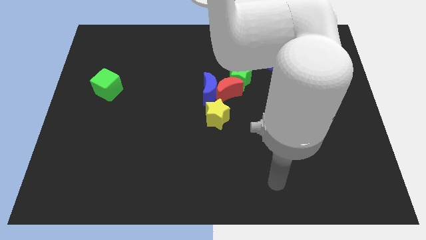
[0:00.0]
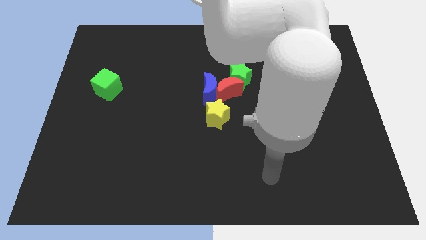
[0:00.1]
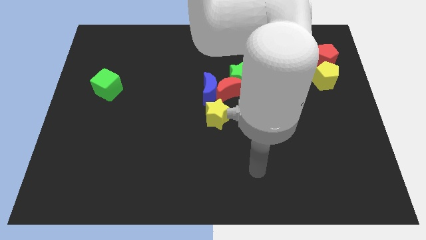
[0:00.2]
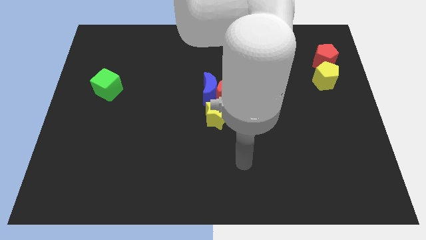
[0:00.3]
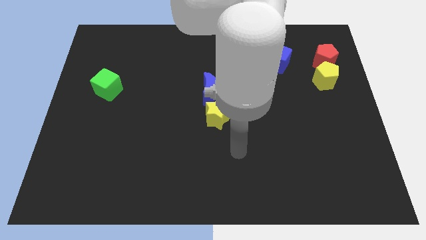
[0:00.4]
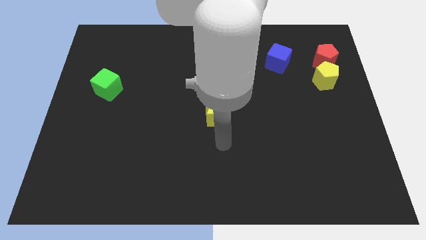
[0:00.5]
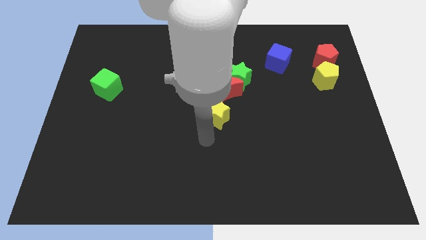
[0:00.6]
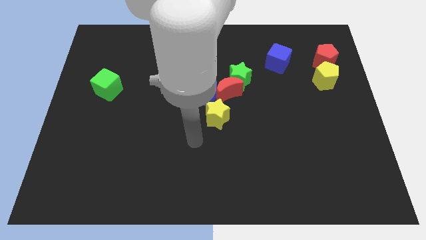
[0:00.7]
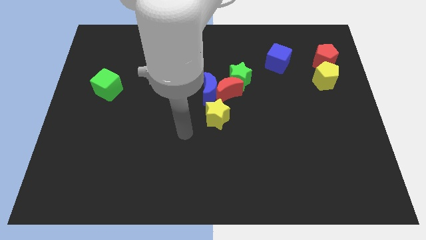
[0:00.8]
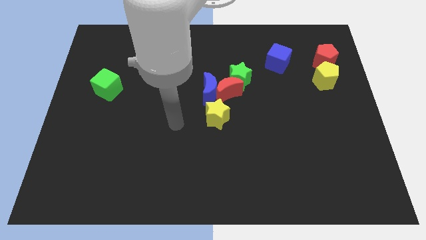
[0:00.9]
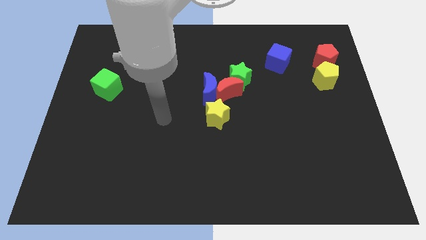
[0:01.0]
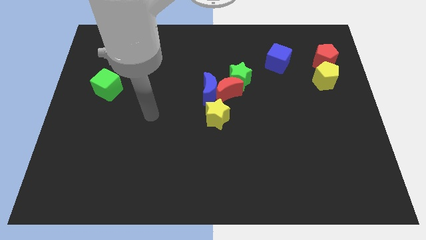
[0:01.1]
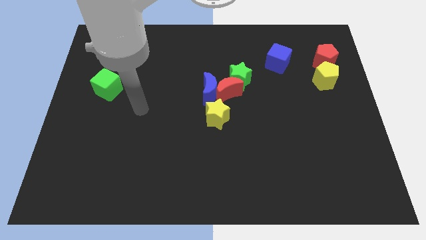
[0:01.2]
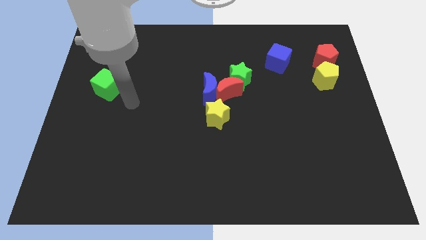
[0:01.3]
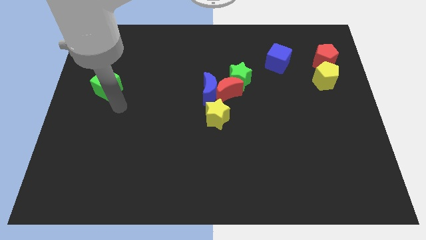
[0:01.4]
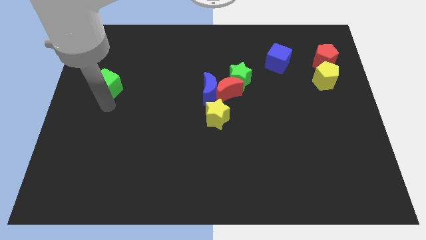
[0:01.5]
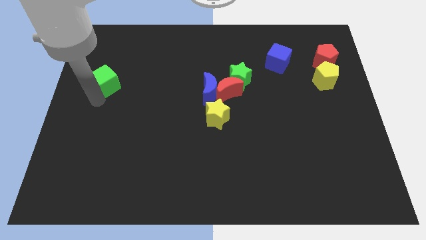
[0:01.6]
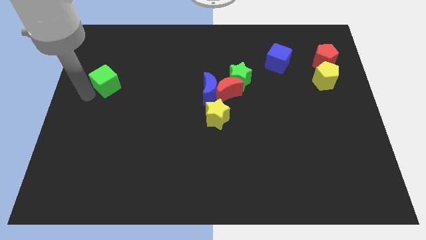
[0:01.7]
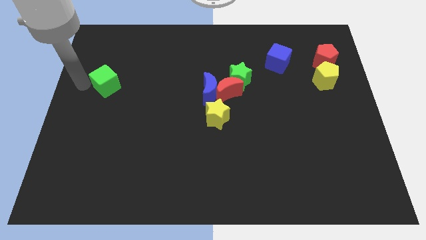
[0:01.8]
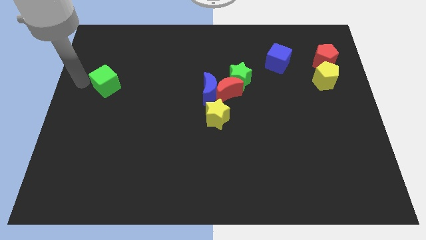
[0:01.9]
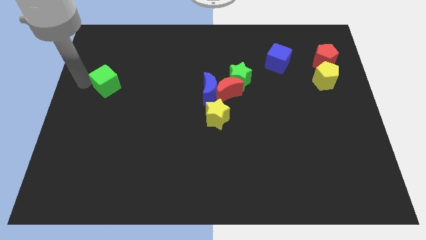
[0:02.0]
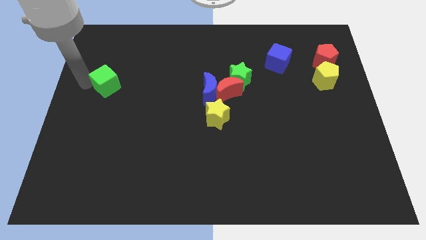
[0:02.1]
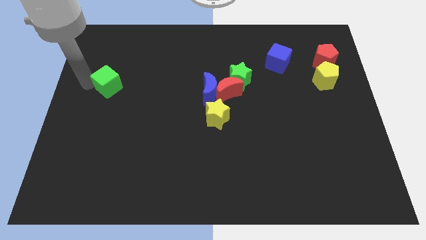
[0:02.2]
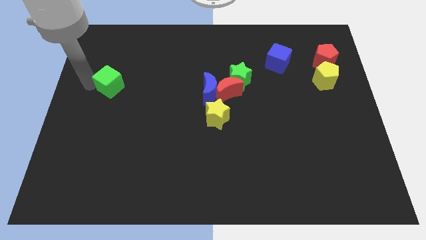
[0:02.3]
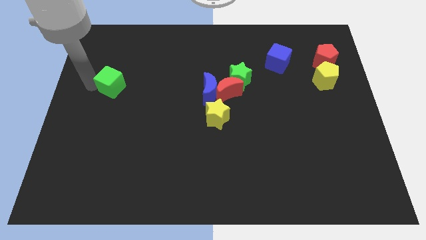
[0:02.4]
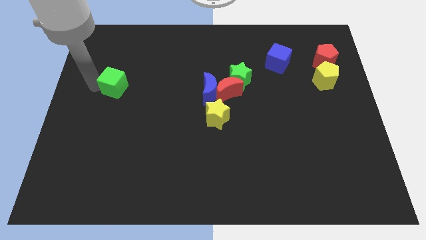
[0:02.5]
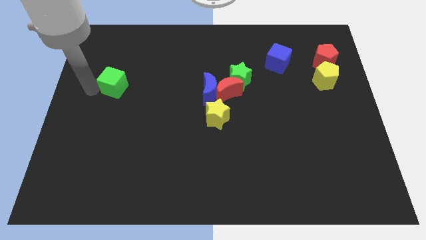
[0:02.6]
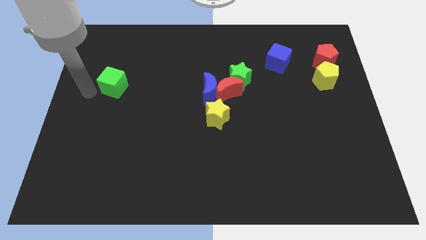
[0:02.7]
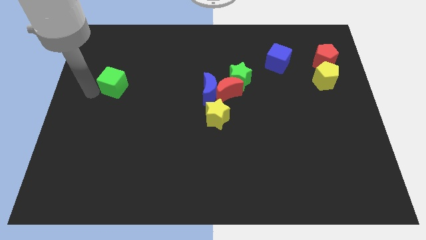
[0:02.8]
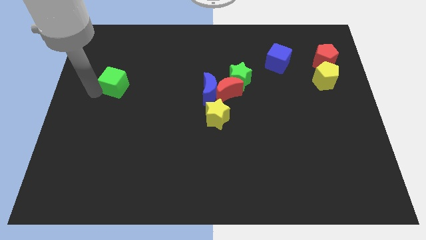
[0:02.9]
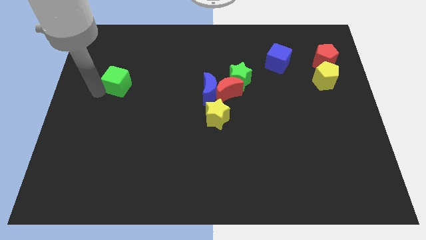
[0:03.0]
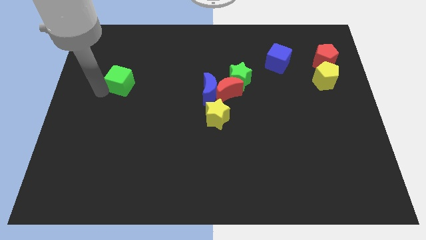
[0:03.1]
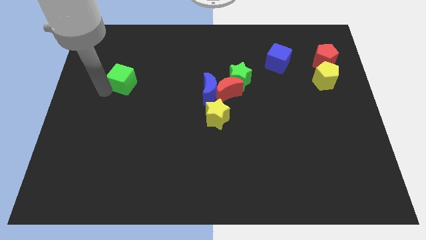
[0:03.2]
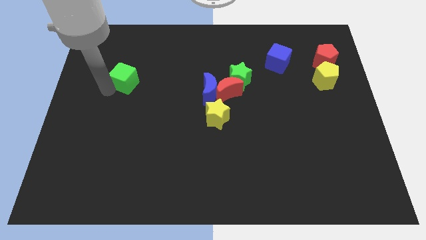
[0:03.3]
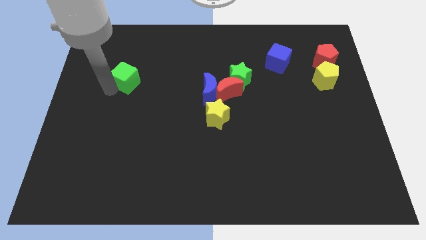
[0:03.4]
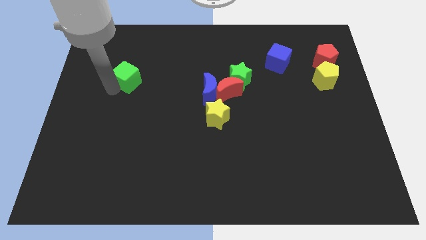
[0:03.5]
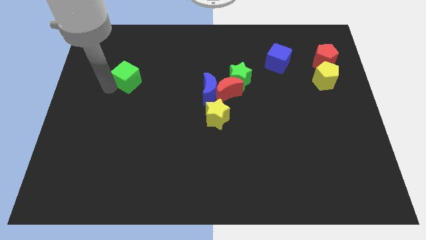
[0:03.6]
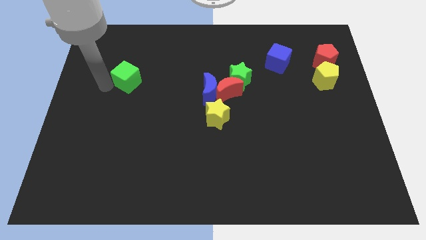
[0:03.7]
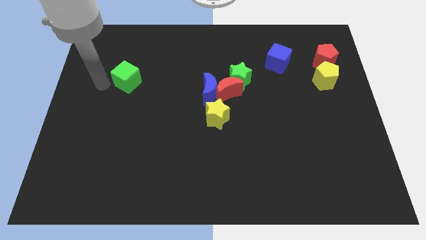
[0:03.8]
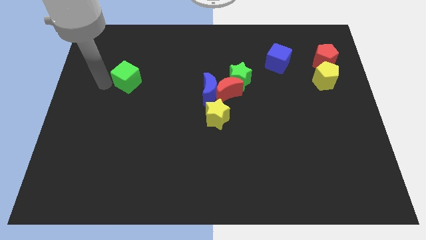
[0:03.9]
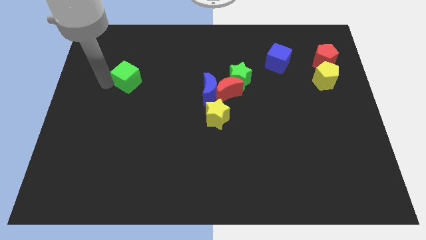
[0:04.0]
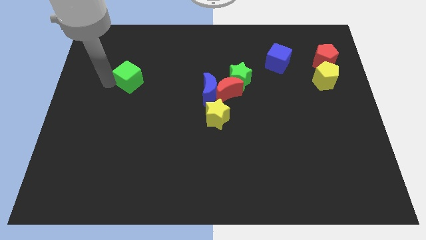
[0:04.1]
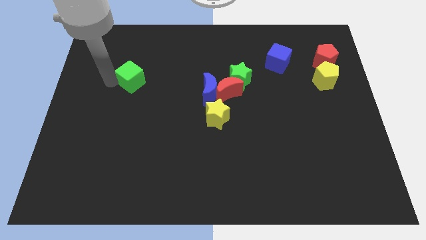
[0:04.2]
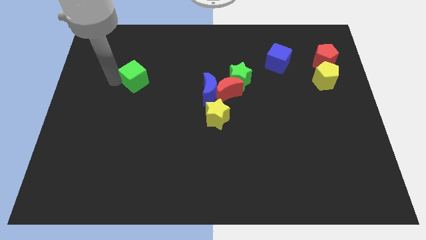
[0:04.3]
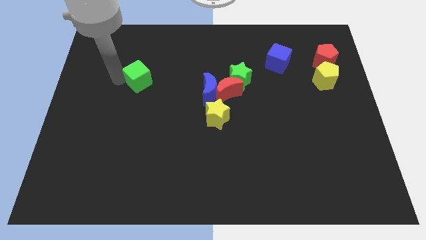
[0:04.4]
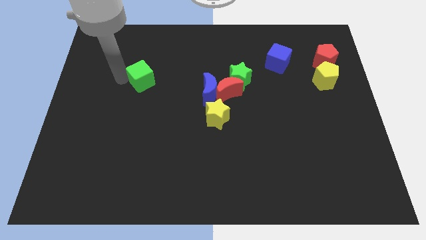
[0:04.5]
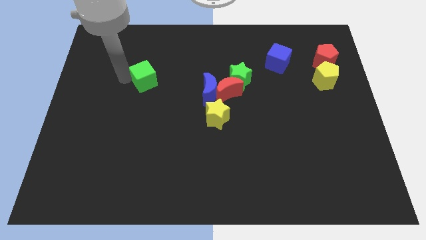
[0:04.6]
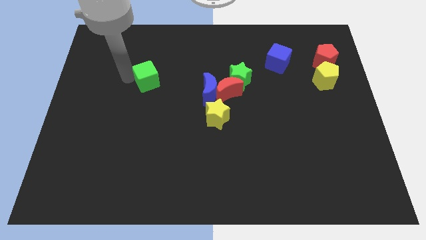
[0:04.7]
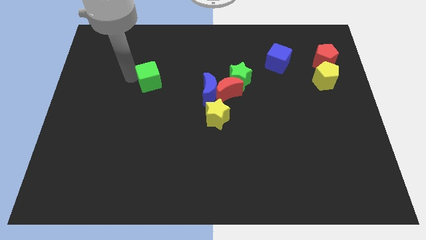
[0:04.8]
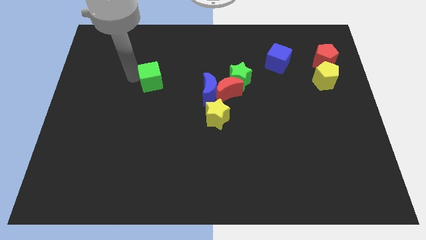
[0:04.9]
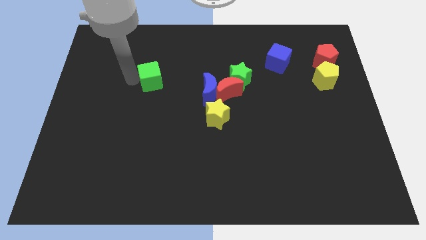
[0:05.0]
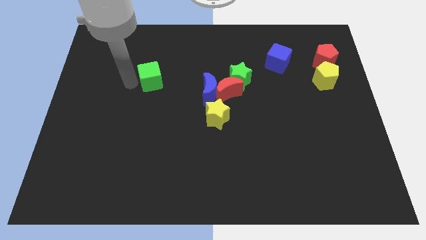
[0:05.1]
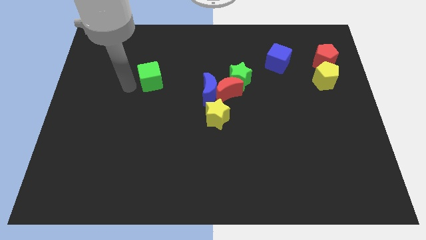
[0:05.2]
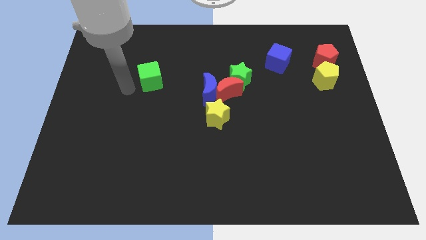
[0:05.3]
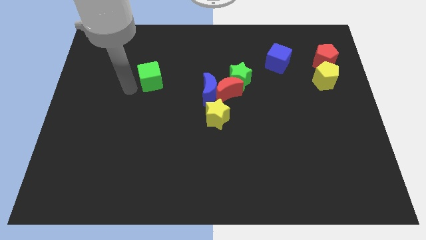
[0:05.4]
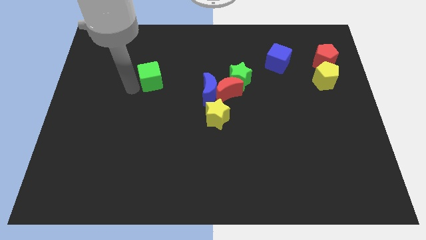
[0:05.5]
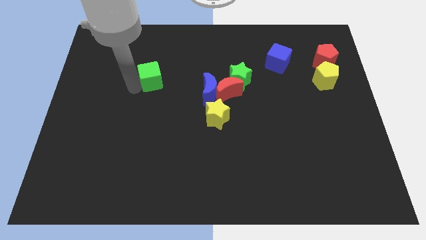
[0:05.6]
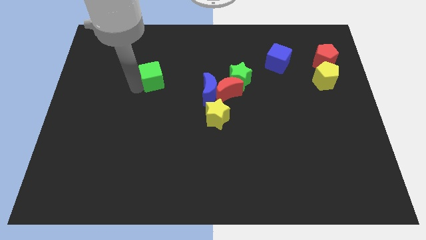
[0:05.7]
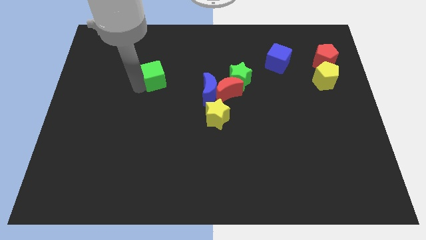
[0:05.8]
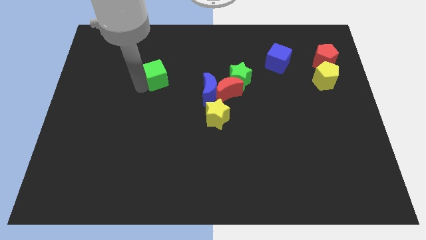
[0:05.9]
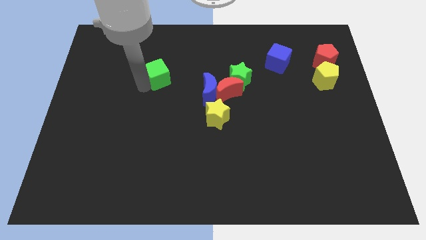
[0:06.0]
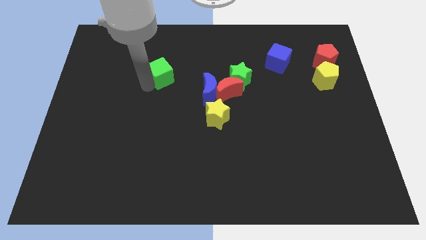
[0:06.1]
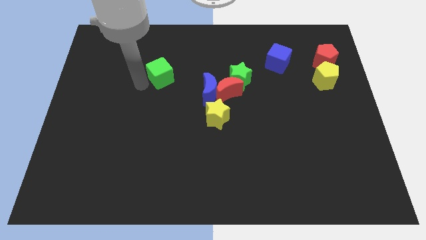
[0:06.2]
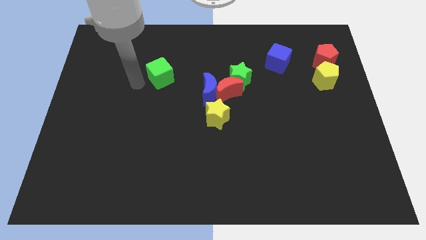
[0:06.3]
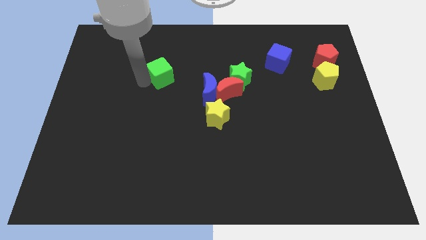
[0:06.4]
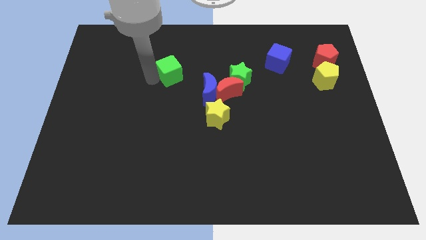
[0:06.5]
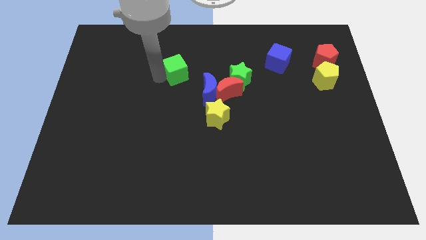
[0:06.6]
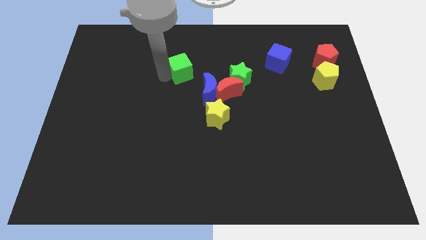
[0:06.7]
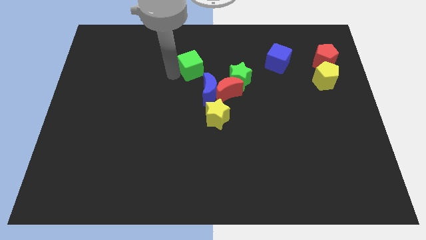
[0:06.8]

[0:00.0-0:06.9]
push the green cube to the top of the blue moon
